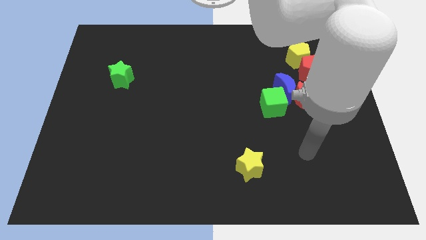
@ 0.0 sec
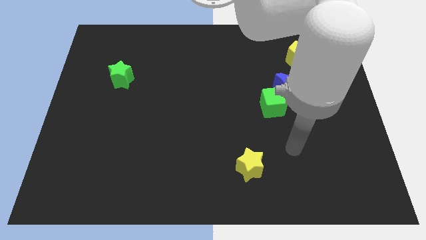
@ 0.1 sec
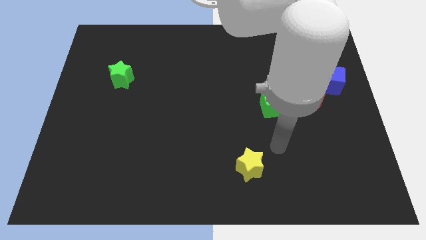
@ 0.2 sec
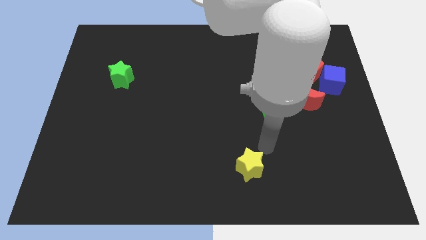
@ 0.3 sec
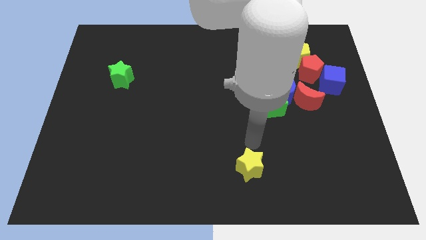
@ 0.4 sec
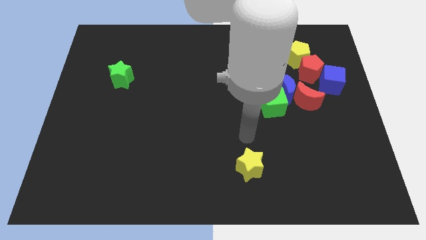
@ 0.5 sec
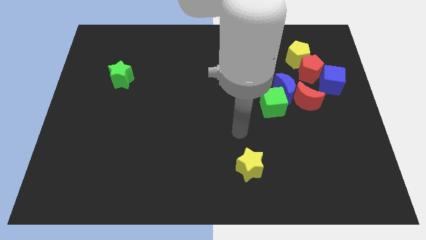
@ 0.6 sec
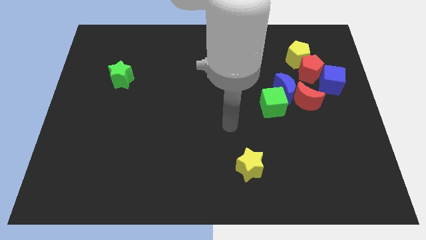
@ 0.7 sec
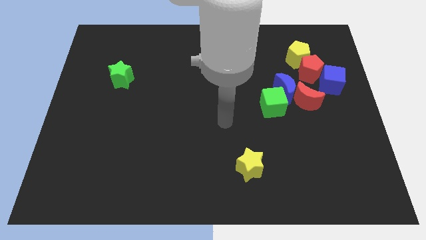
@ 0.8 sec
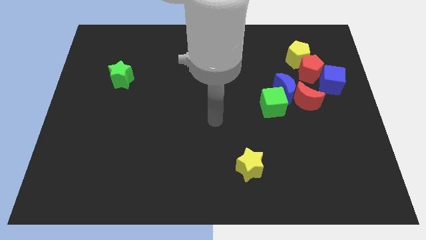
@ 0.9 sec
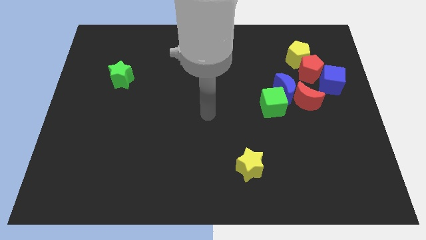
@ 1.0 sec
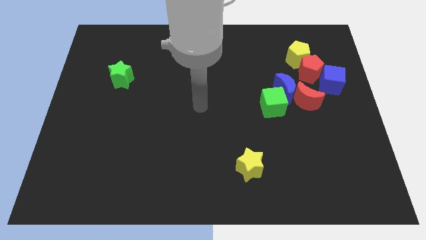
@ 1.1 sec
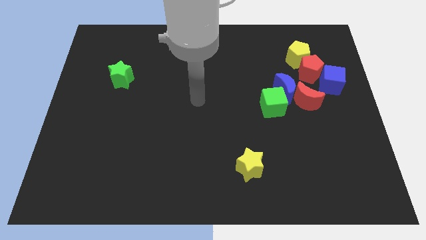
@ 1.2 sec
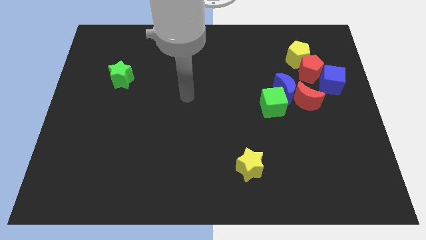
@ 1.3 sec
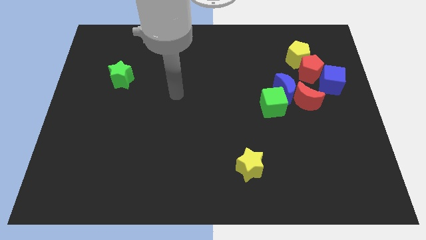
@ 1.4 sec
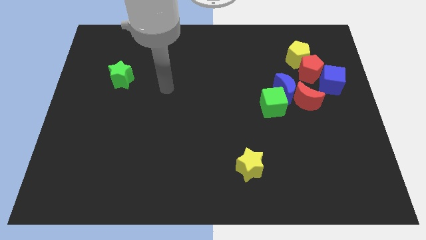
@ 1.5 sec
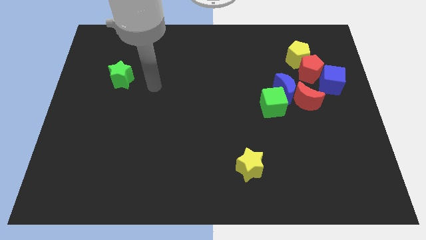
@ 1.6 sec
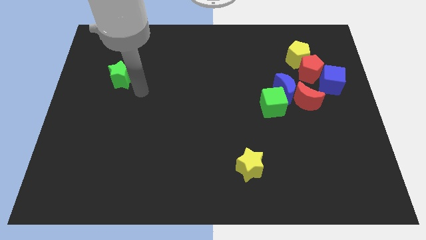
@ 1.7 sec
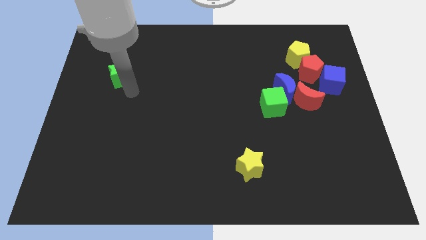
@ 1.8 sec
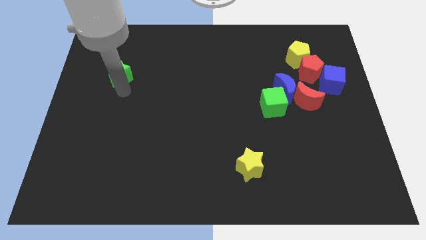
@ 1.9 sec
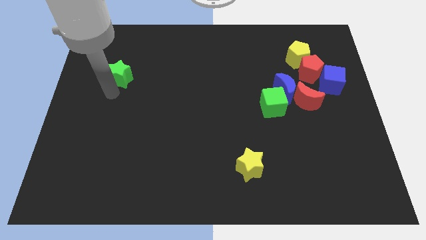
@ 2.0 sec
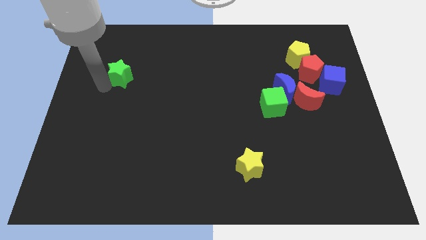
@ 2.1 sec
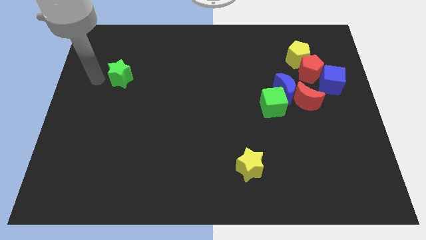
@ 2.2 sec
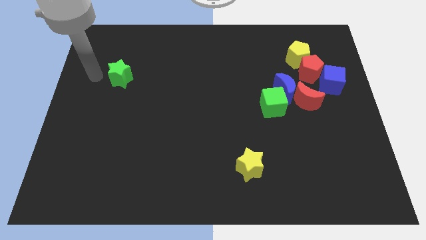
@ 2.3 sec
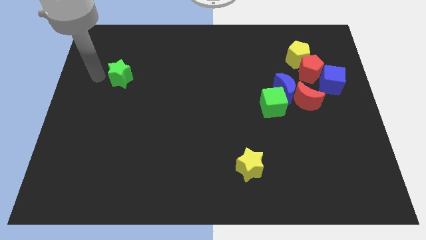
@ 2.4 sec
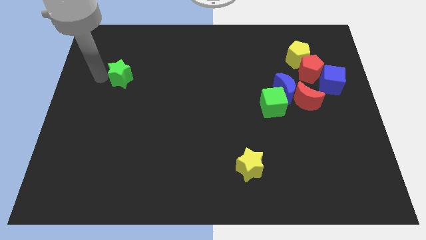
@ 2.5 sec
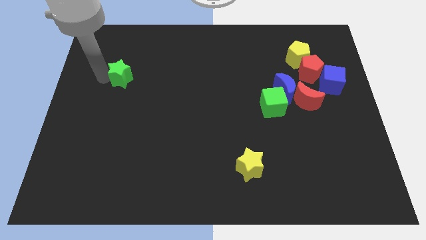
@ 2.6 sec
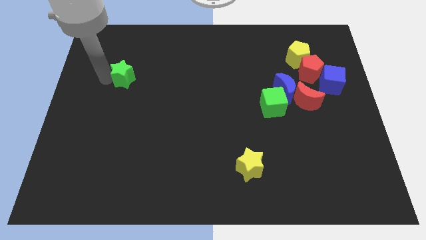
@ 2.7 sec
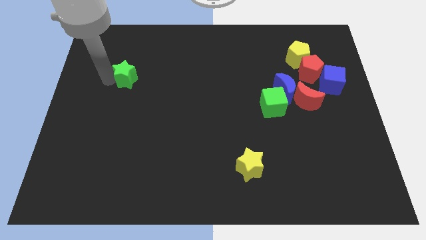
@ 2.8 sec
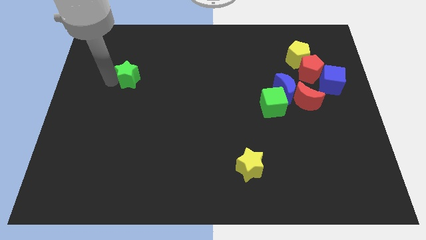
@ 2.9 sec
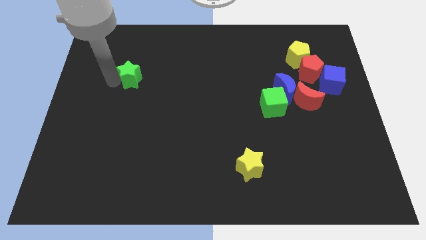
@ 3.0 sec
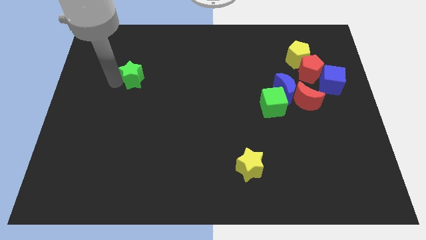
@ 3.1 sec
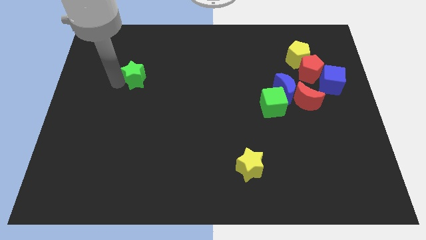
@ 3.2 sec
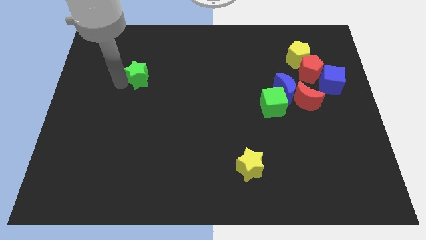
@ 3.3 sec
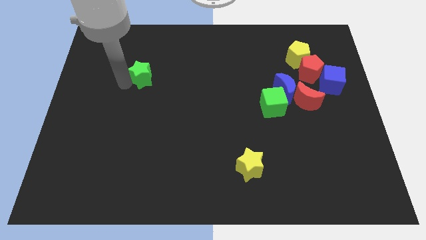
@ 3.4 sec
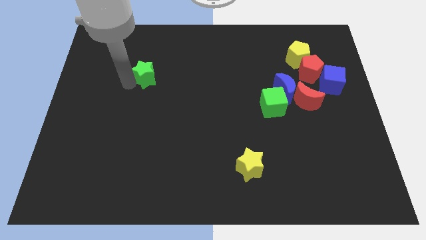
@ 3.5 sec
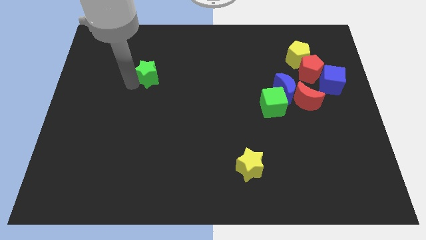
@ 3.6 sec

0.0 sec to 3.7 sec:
slightly slide the green star right

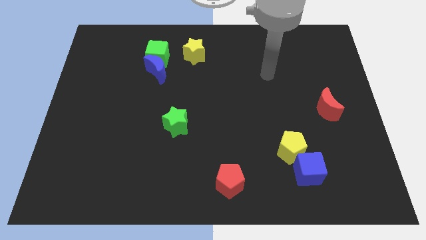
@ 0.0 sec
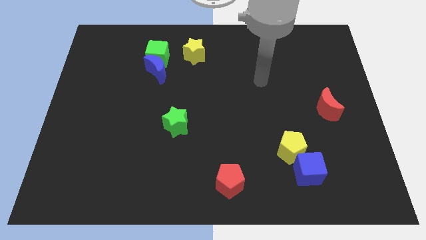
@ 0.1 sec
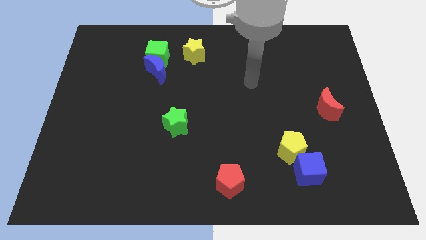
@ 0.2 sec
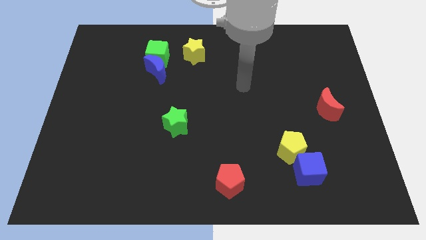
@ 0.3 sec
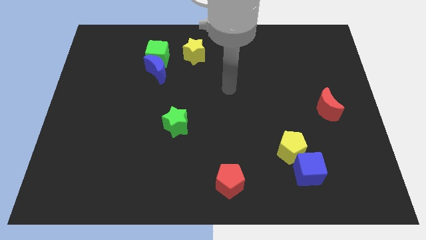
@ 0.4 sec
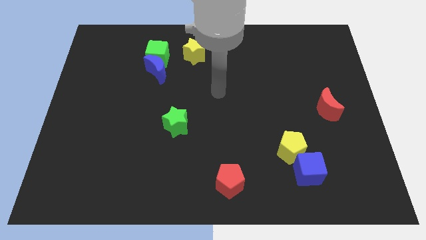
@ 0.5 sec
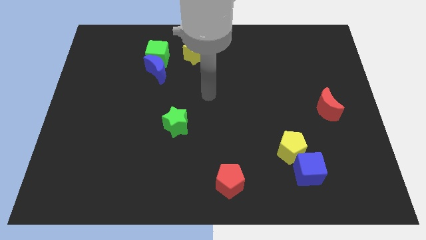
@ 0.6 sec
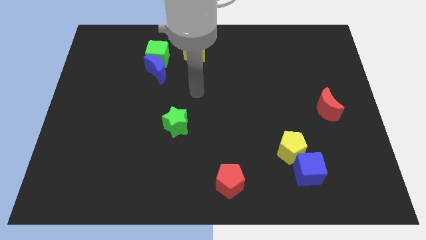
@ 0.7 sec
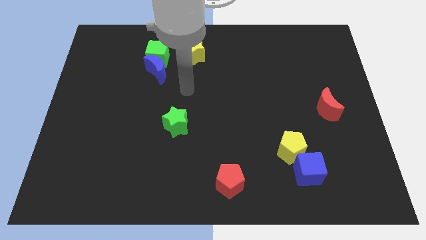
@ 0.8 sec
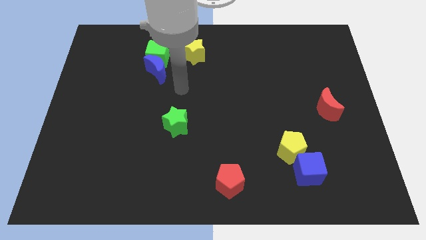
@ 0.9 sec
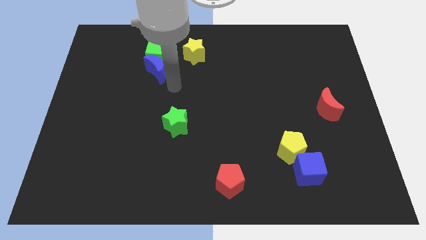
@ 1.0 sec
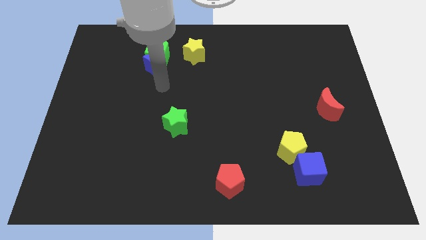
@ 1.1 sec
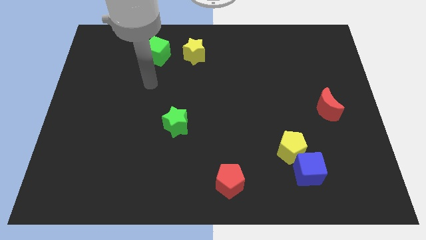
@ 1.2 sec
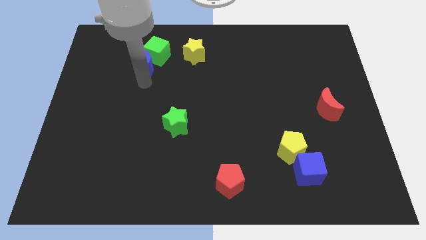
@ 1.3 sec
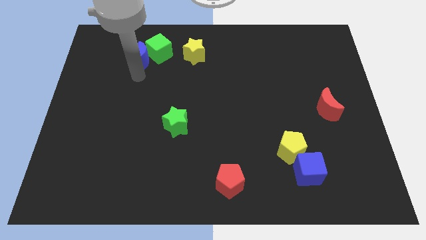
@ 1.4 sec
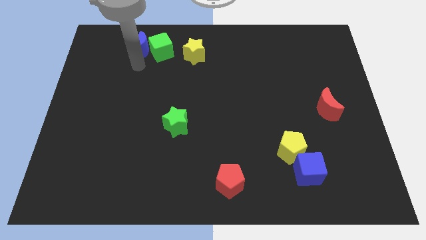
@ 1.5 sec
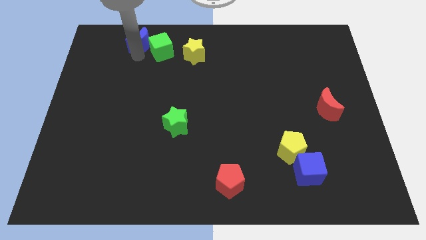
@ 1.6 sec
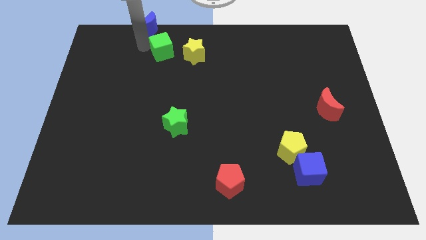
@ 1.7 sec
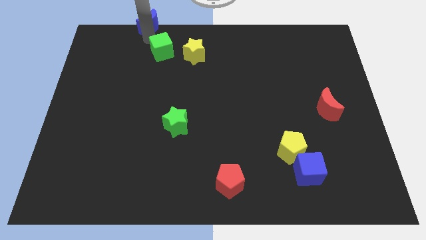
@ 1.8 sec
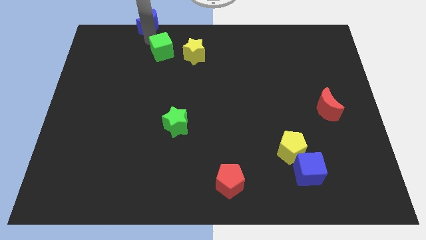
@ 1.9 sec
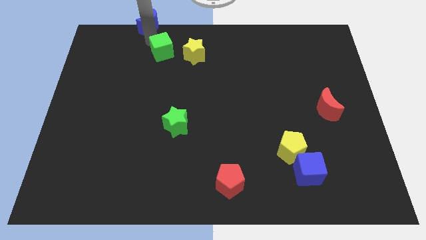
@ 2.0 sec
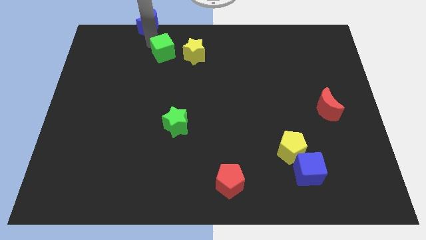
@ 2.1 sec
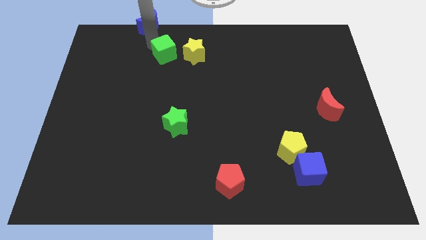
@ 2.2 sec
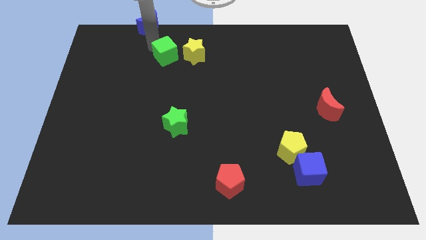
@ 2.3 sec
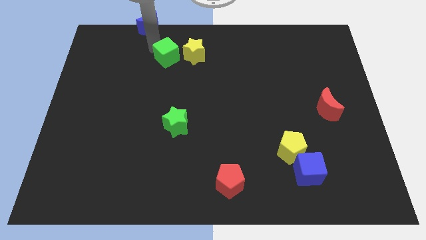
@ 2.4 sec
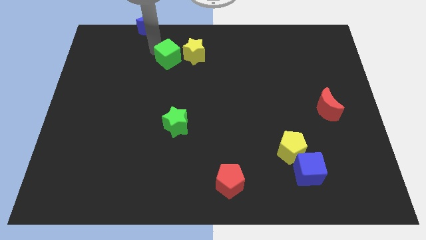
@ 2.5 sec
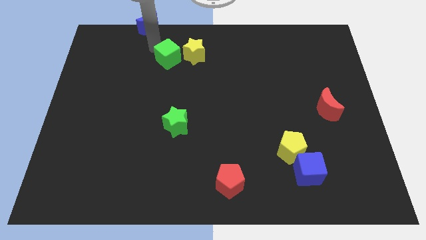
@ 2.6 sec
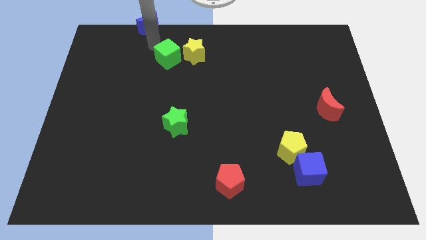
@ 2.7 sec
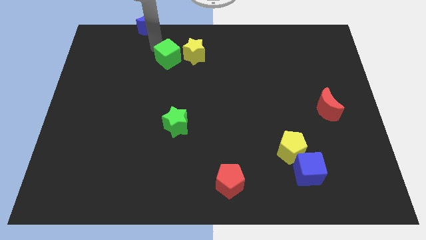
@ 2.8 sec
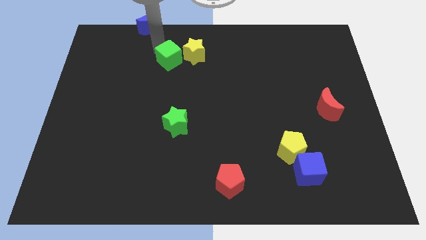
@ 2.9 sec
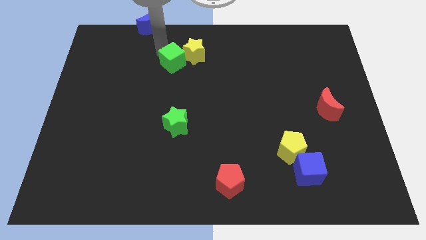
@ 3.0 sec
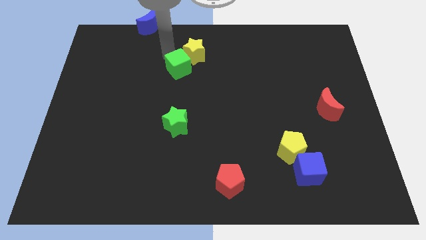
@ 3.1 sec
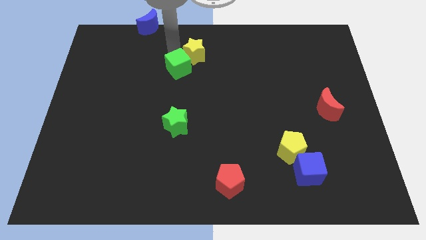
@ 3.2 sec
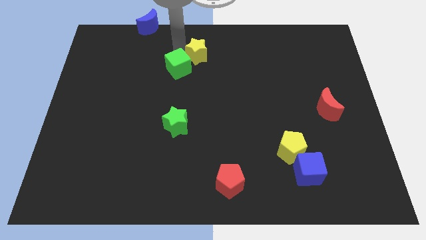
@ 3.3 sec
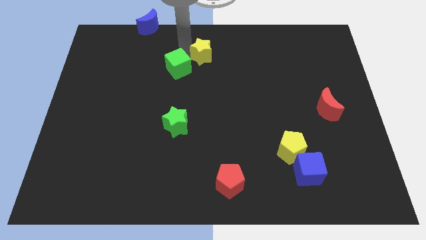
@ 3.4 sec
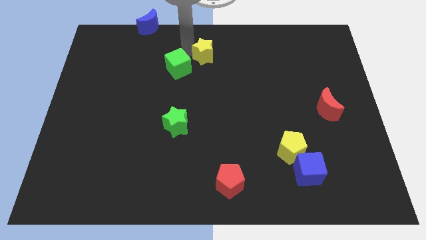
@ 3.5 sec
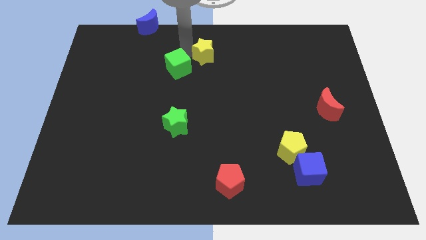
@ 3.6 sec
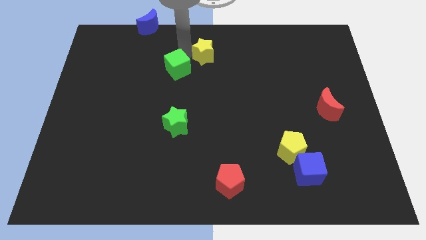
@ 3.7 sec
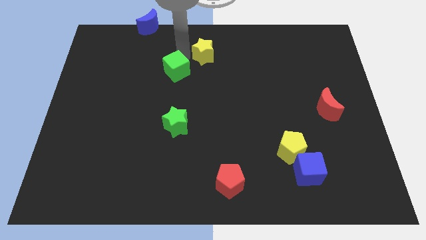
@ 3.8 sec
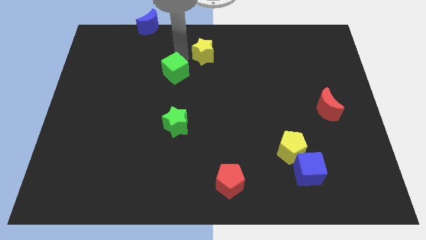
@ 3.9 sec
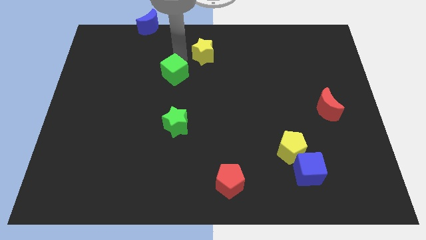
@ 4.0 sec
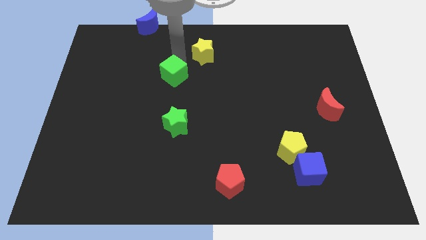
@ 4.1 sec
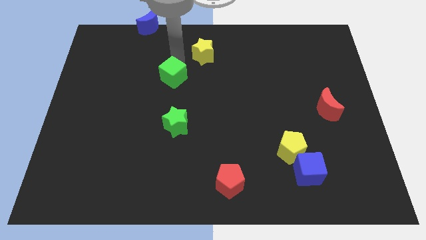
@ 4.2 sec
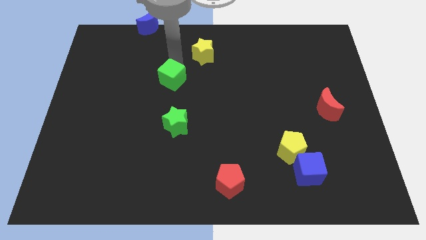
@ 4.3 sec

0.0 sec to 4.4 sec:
slightly move the green cube down
